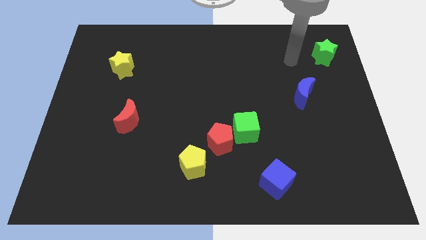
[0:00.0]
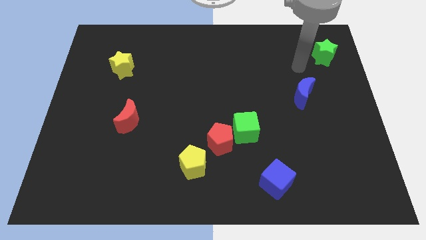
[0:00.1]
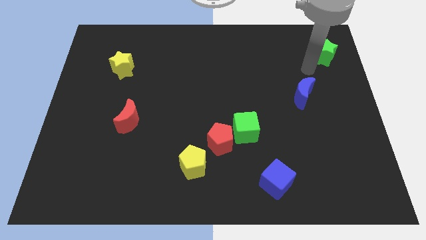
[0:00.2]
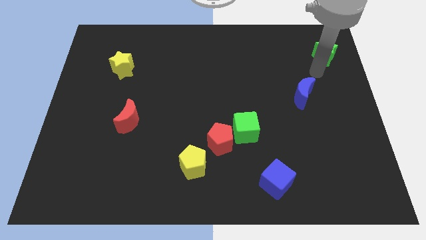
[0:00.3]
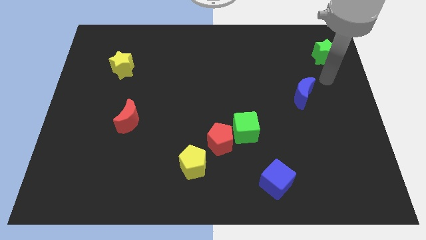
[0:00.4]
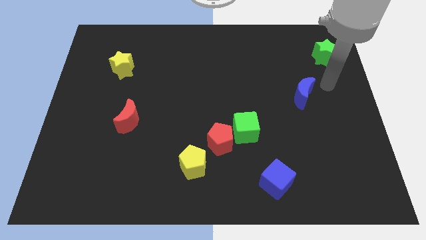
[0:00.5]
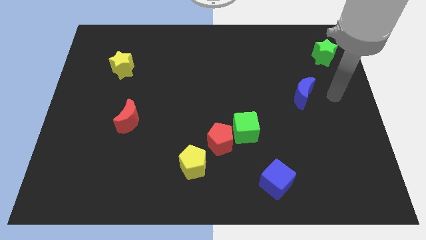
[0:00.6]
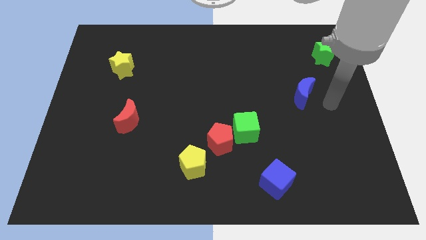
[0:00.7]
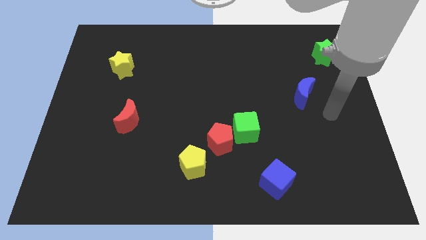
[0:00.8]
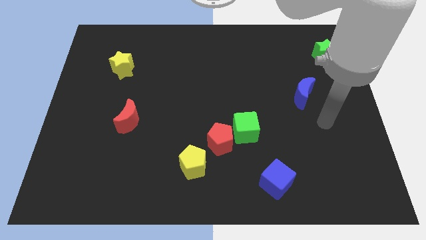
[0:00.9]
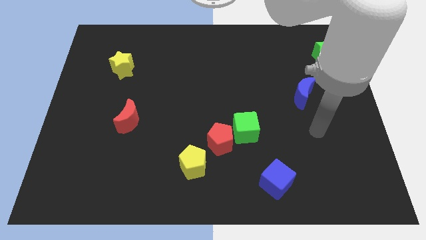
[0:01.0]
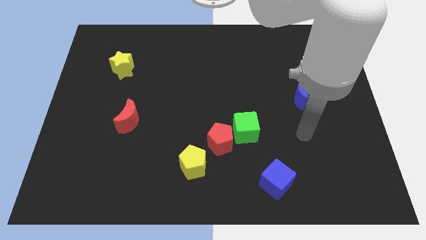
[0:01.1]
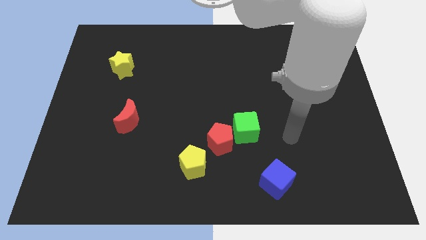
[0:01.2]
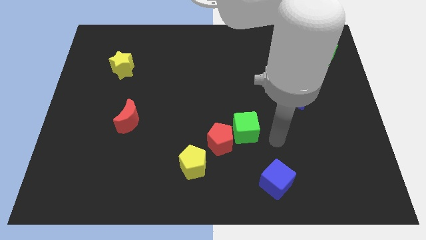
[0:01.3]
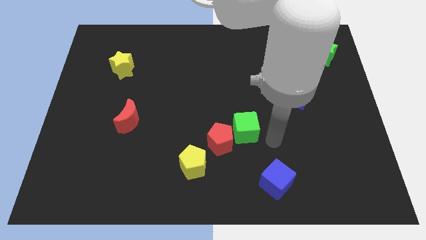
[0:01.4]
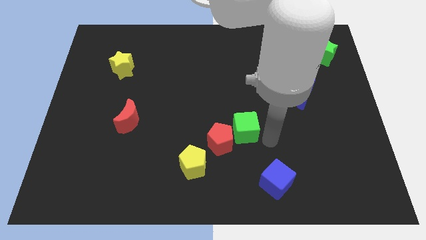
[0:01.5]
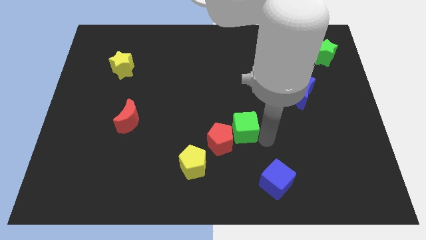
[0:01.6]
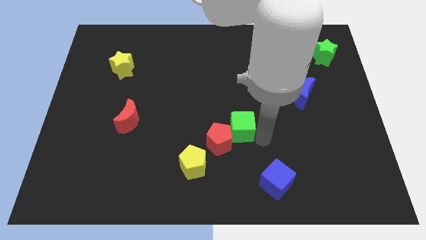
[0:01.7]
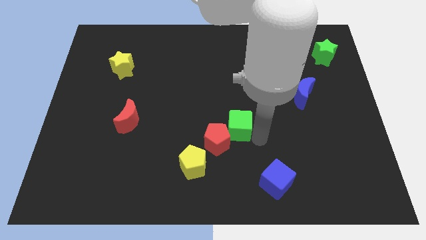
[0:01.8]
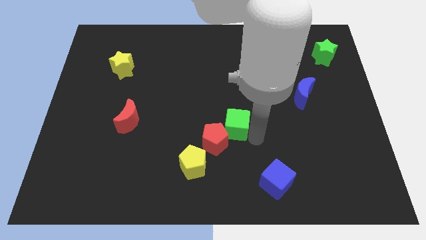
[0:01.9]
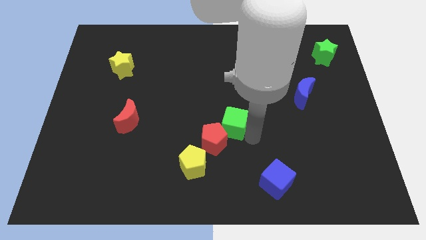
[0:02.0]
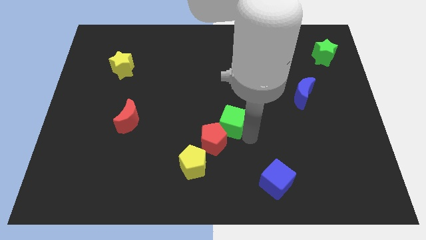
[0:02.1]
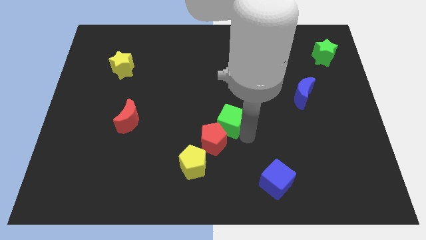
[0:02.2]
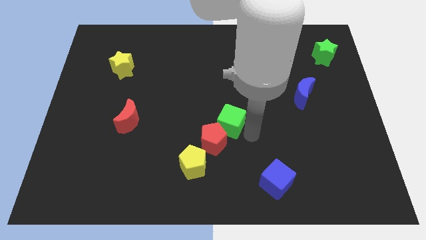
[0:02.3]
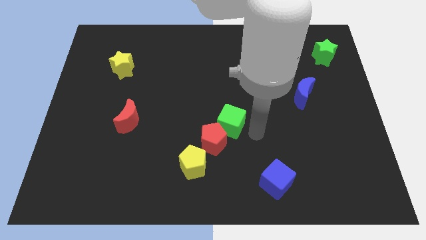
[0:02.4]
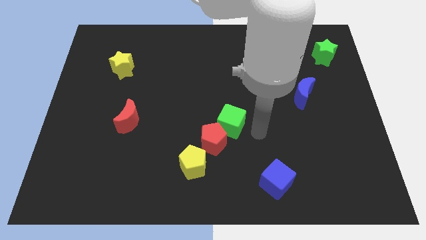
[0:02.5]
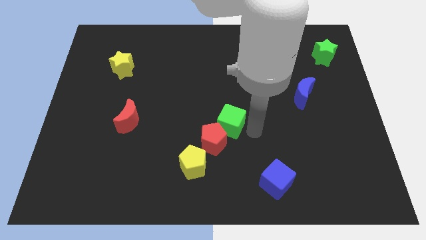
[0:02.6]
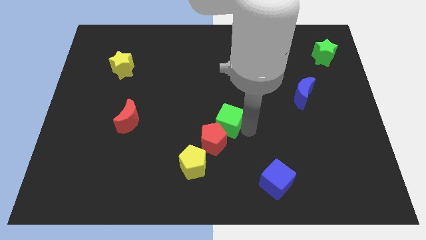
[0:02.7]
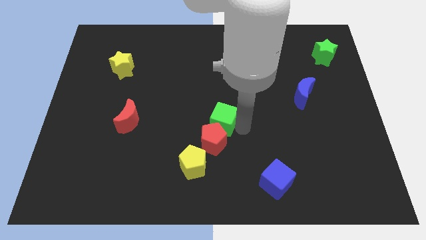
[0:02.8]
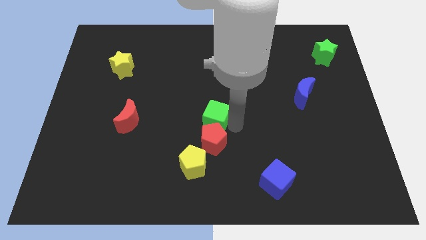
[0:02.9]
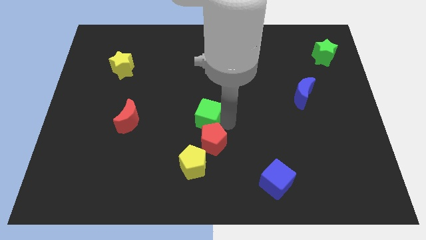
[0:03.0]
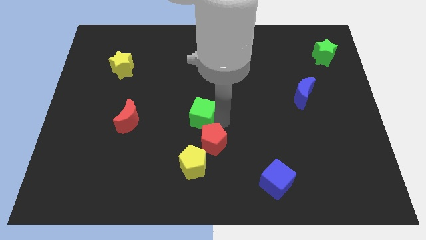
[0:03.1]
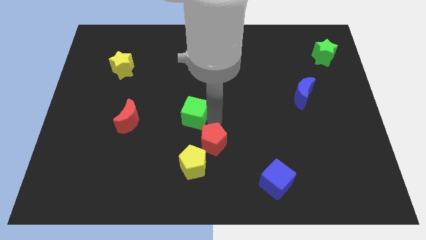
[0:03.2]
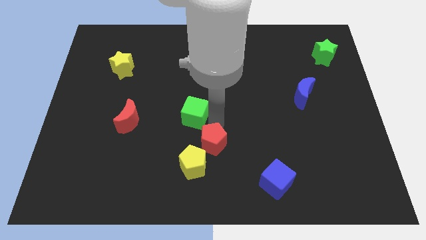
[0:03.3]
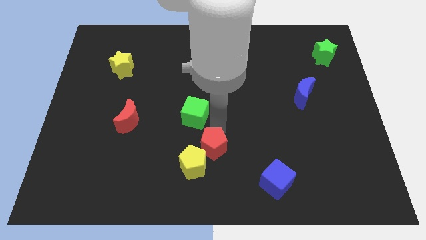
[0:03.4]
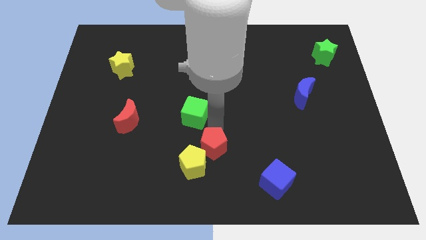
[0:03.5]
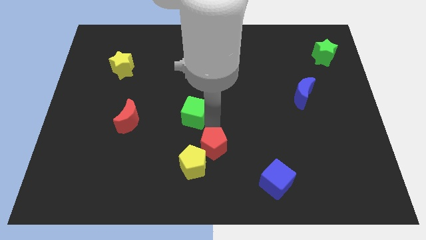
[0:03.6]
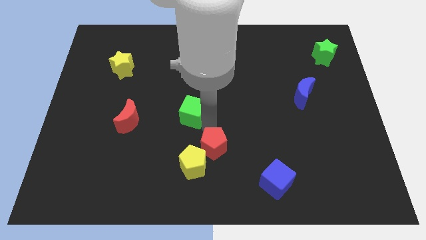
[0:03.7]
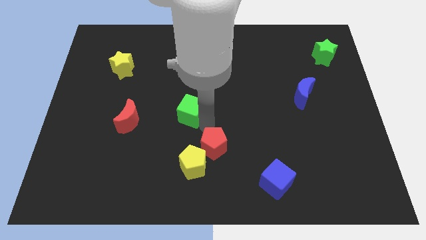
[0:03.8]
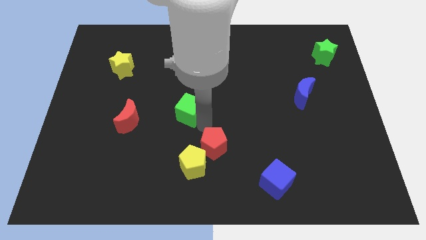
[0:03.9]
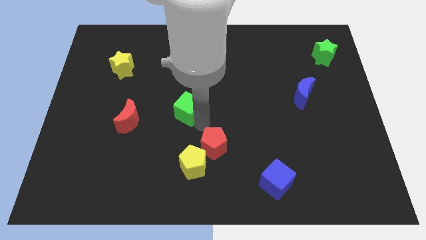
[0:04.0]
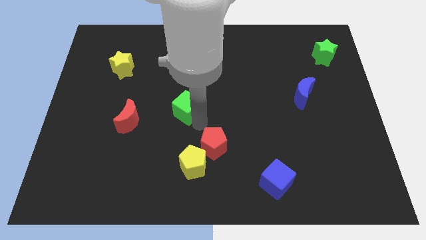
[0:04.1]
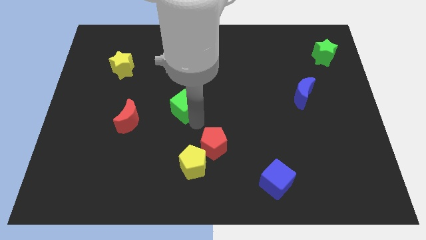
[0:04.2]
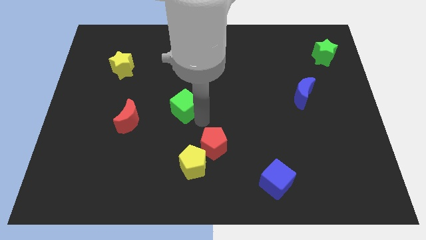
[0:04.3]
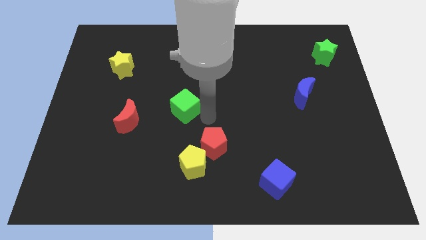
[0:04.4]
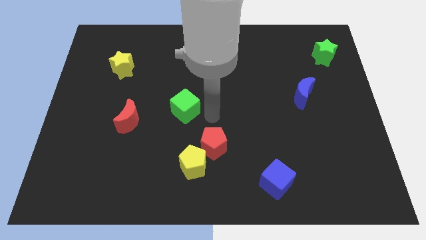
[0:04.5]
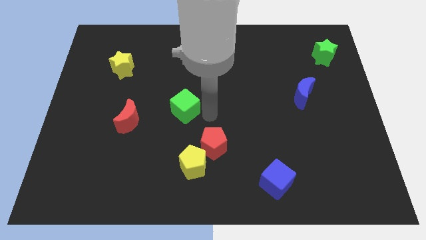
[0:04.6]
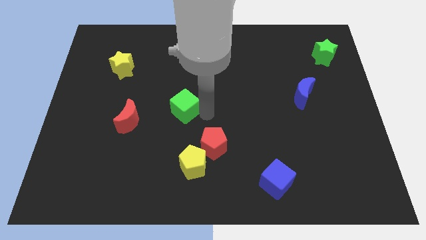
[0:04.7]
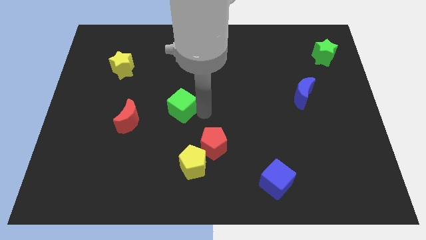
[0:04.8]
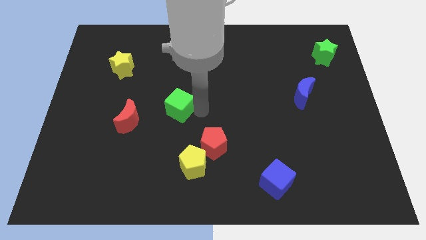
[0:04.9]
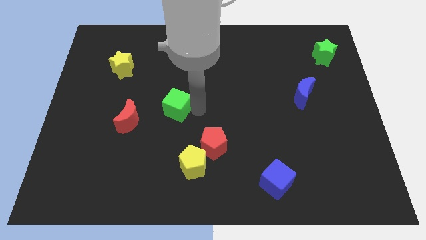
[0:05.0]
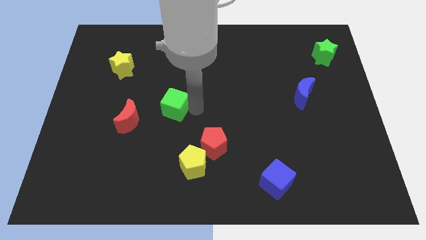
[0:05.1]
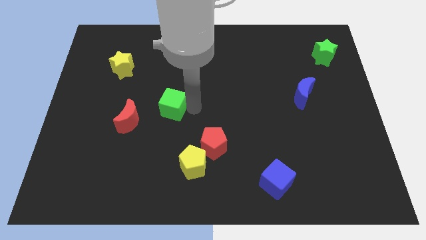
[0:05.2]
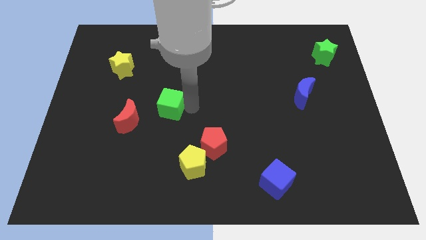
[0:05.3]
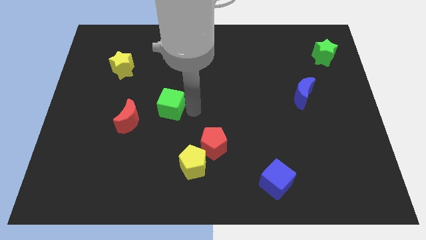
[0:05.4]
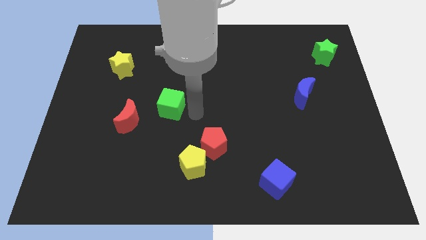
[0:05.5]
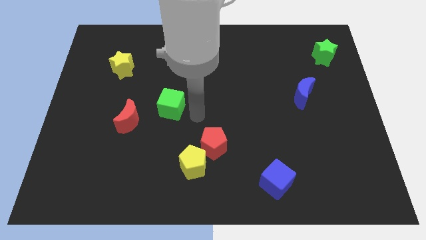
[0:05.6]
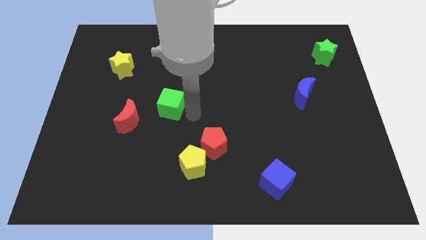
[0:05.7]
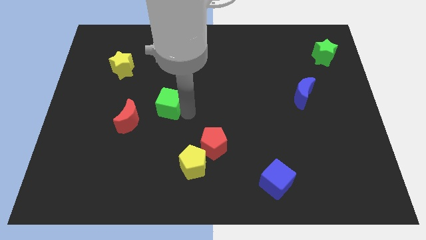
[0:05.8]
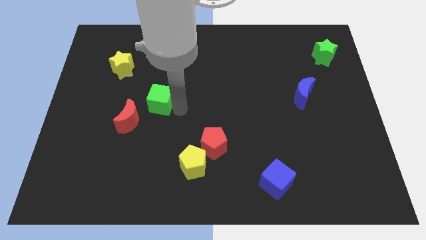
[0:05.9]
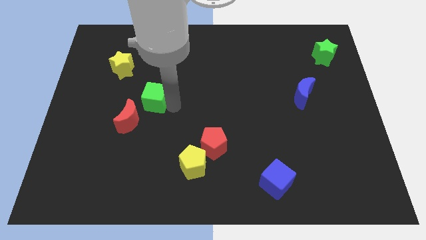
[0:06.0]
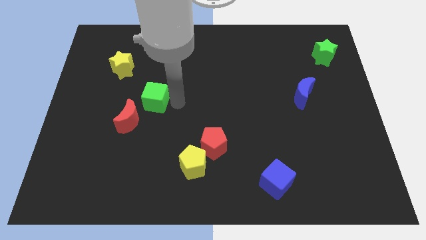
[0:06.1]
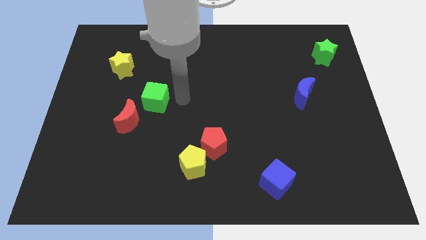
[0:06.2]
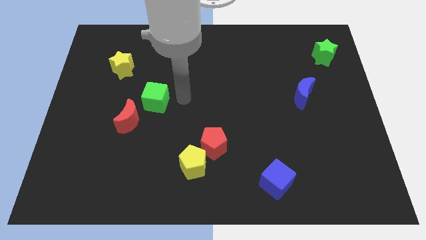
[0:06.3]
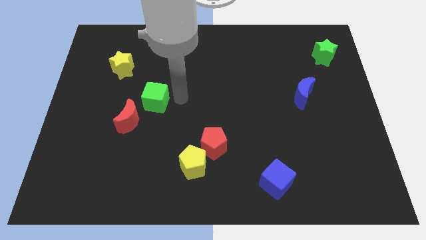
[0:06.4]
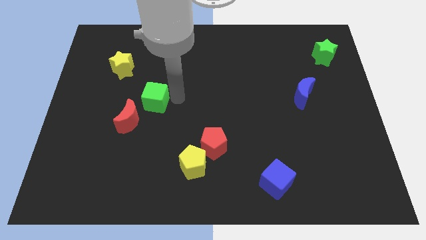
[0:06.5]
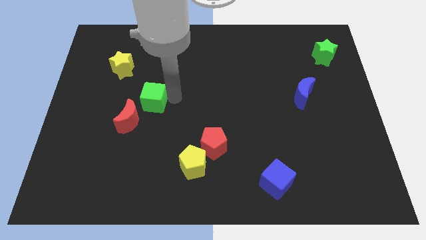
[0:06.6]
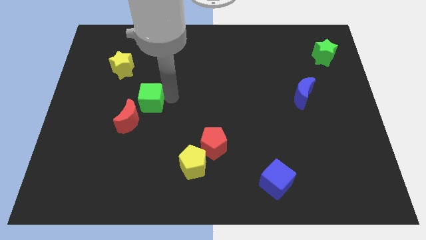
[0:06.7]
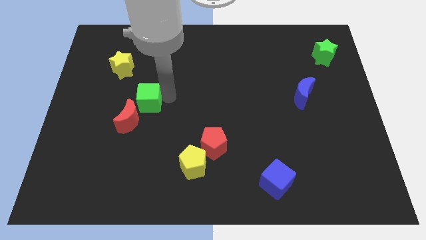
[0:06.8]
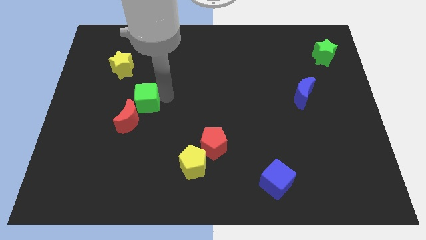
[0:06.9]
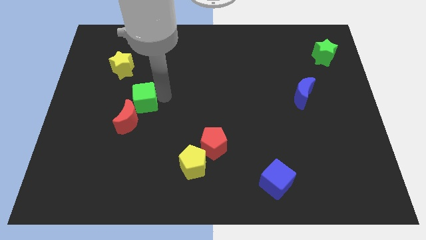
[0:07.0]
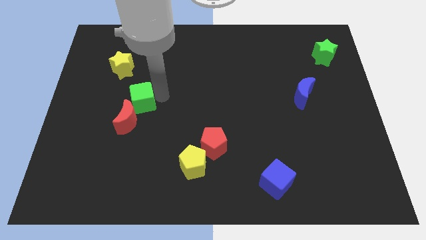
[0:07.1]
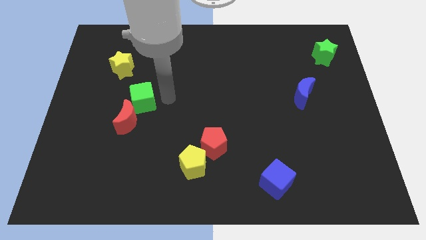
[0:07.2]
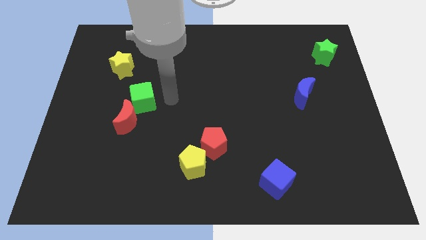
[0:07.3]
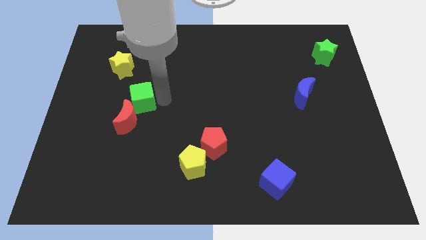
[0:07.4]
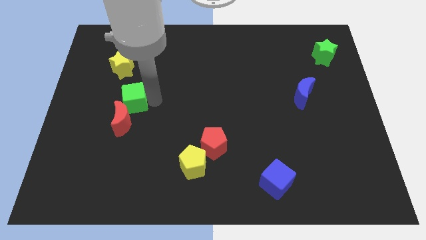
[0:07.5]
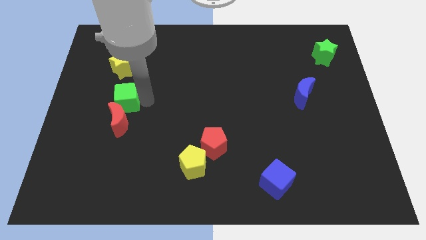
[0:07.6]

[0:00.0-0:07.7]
put the green cube diagonally up and to the left of the red moon
